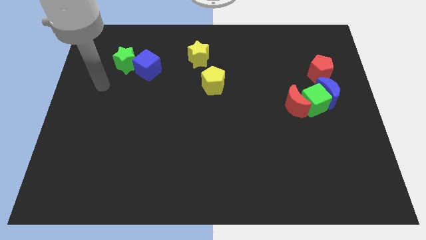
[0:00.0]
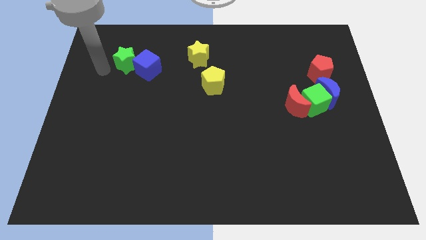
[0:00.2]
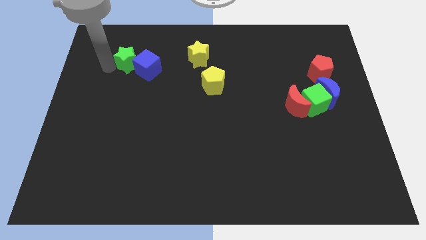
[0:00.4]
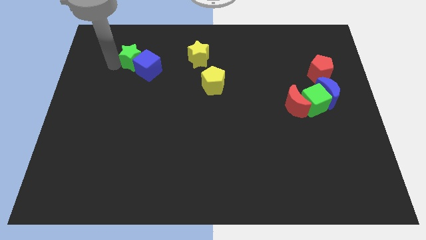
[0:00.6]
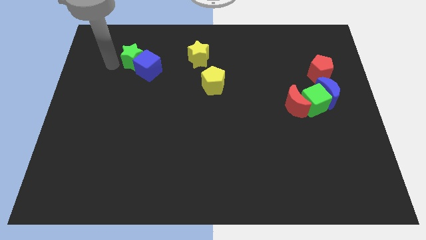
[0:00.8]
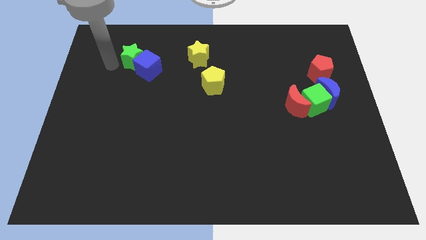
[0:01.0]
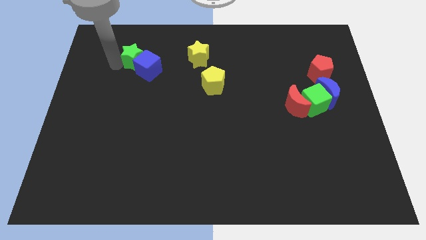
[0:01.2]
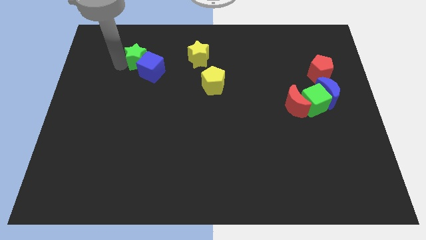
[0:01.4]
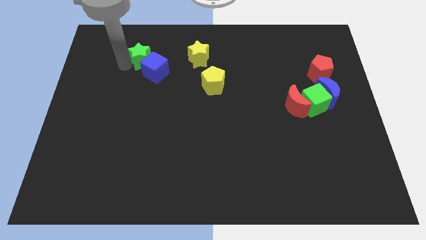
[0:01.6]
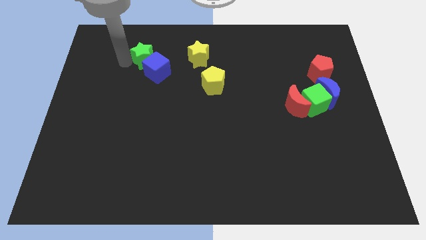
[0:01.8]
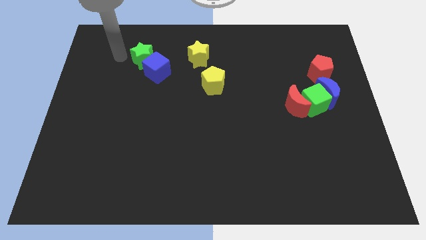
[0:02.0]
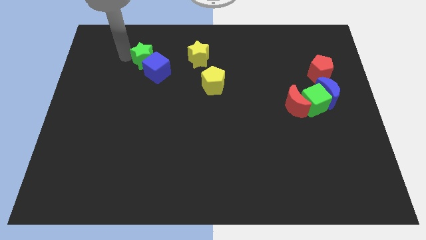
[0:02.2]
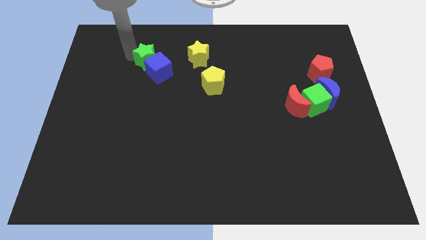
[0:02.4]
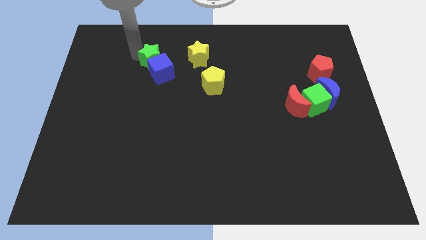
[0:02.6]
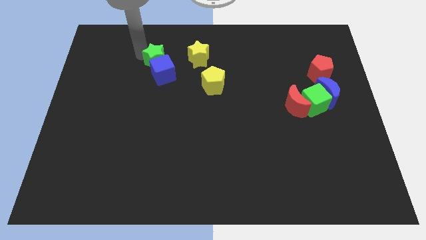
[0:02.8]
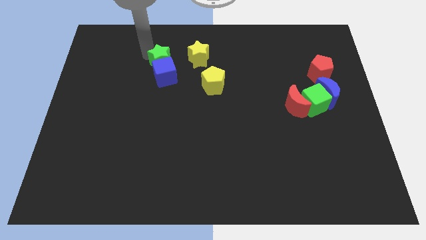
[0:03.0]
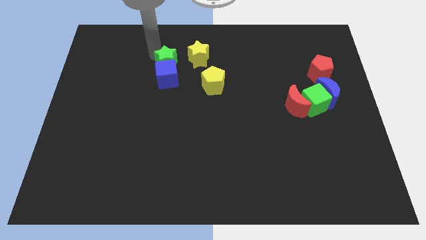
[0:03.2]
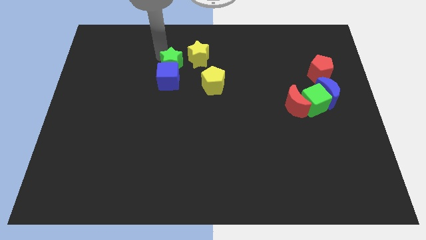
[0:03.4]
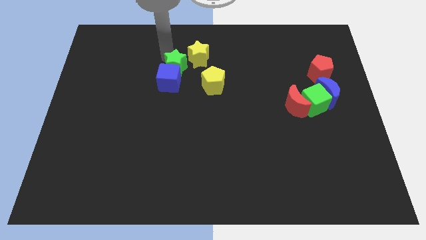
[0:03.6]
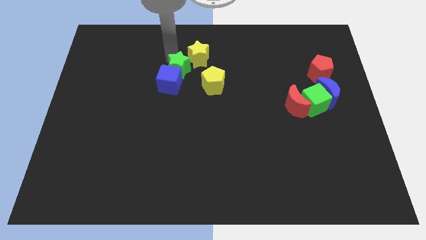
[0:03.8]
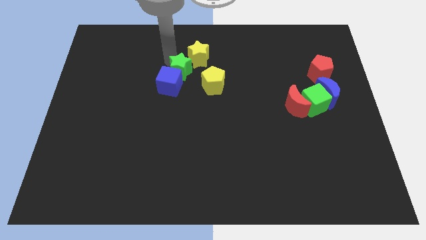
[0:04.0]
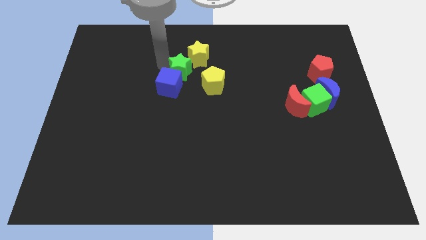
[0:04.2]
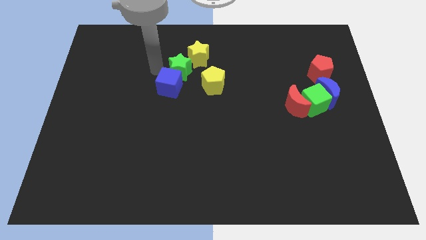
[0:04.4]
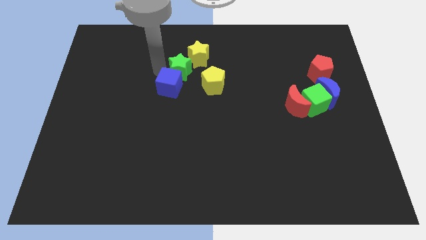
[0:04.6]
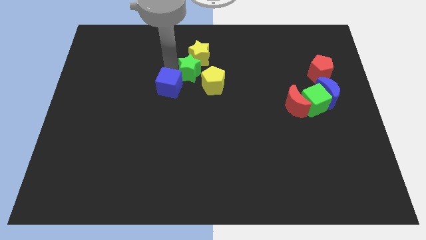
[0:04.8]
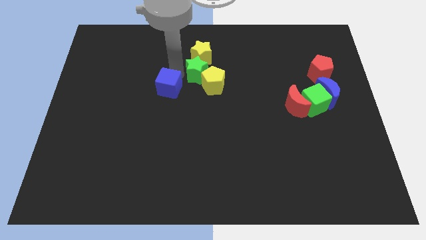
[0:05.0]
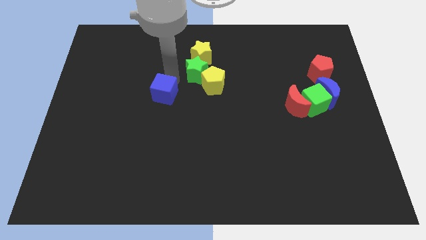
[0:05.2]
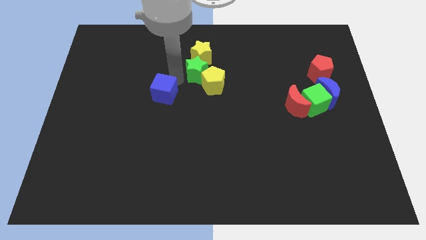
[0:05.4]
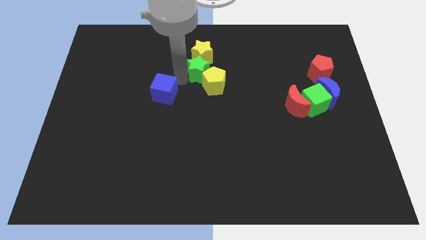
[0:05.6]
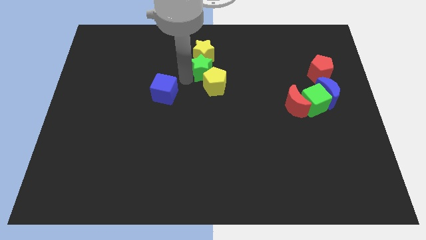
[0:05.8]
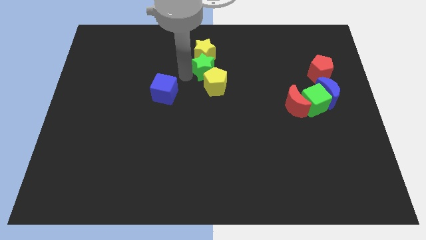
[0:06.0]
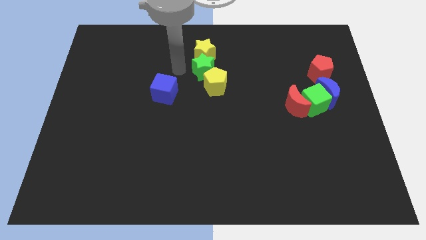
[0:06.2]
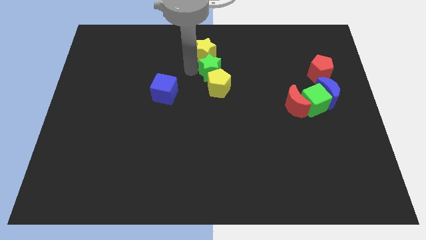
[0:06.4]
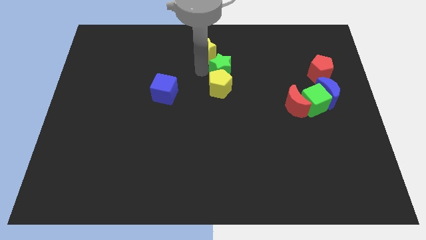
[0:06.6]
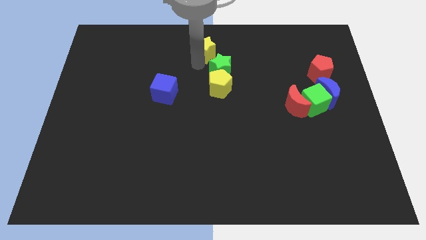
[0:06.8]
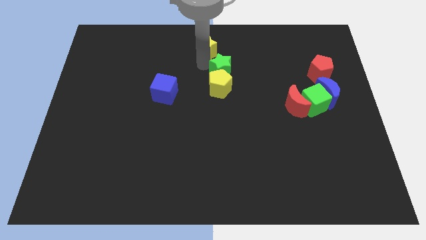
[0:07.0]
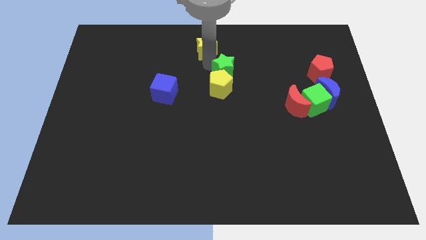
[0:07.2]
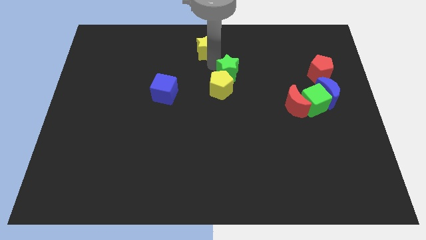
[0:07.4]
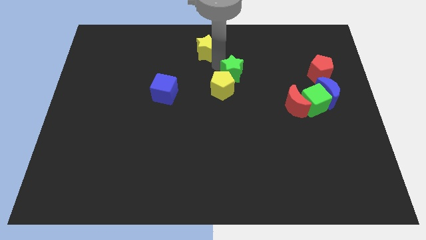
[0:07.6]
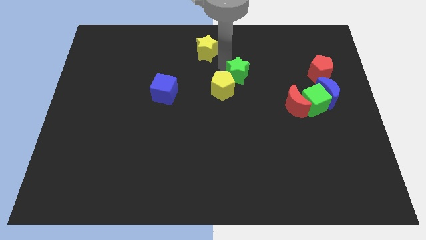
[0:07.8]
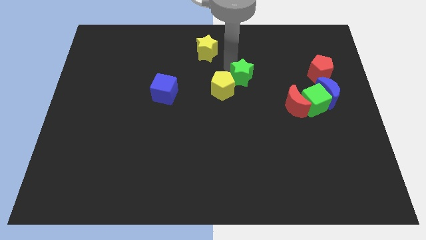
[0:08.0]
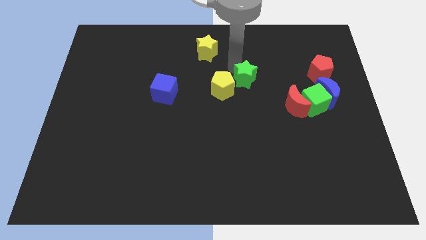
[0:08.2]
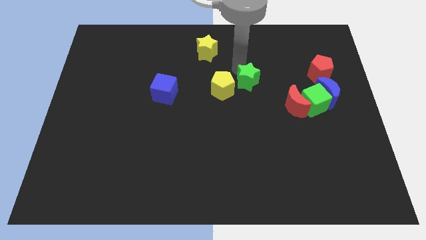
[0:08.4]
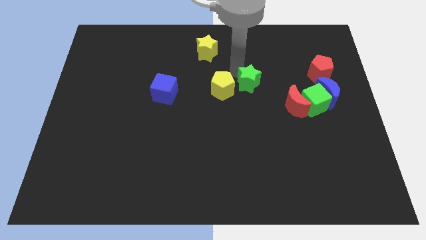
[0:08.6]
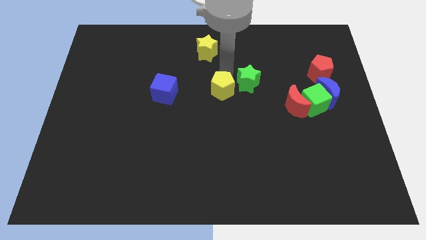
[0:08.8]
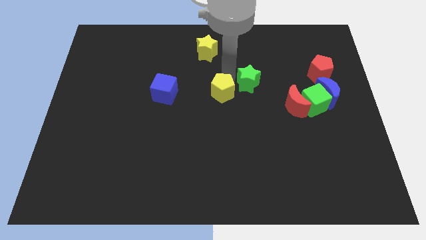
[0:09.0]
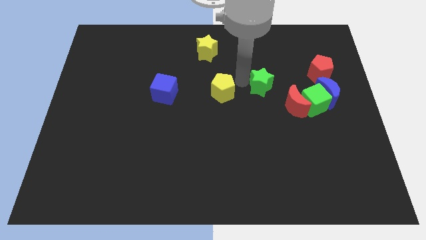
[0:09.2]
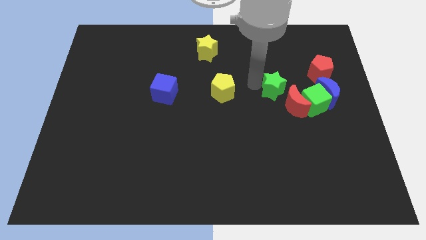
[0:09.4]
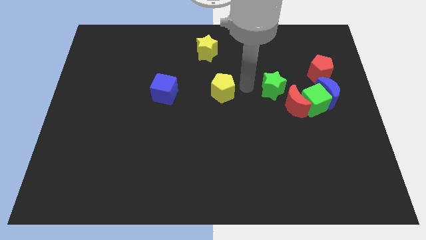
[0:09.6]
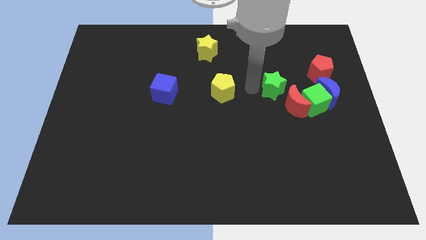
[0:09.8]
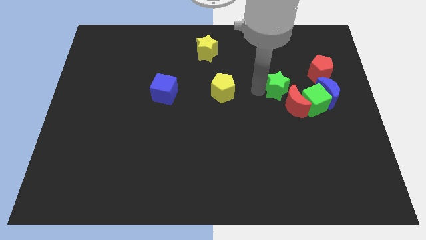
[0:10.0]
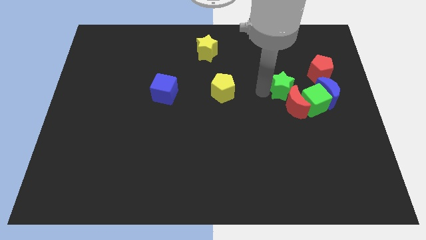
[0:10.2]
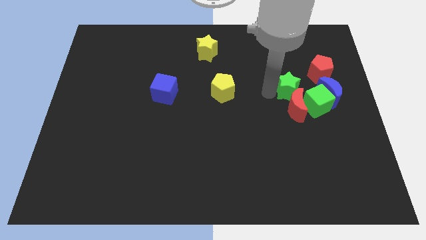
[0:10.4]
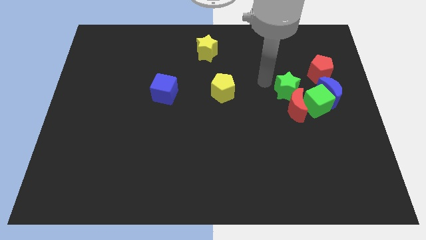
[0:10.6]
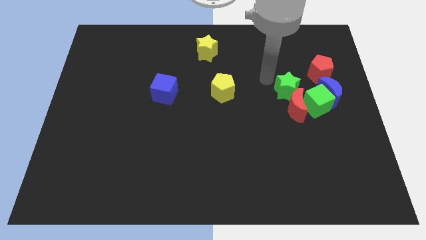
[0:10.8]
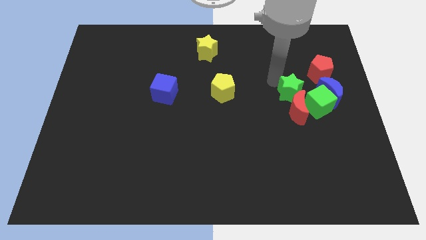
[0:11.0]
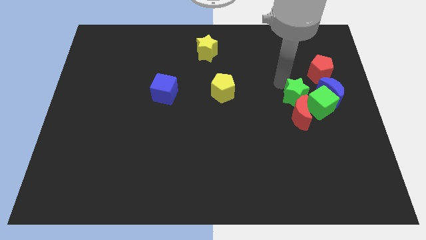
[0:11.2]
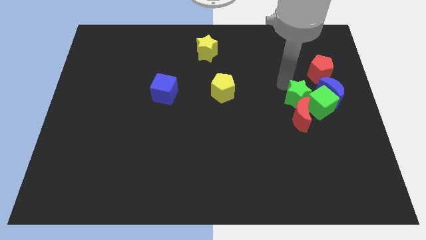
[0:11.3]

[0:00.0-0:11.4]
push the green star towards the green cube

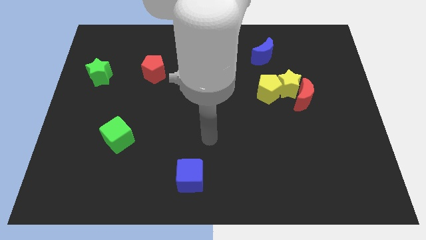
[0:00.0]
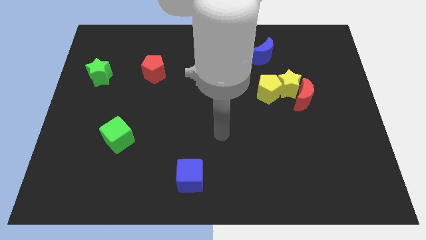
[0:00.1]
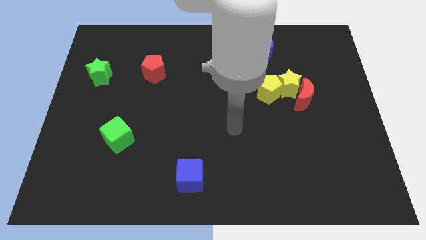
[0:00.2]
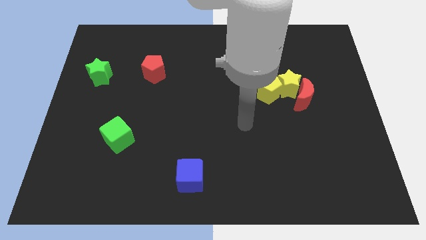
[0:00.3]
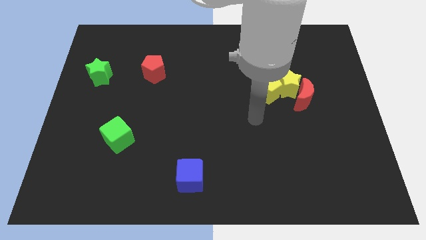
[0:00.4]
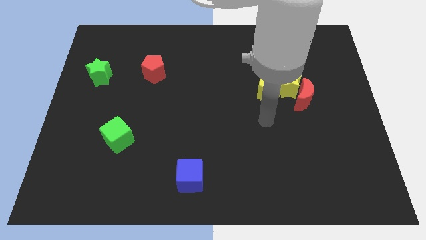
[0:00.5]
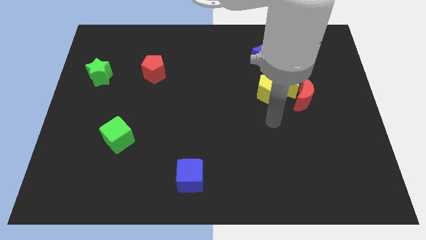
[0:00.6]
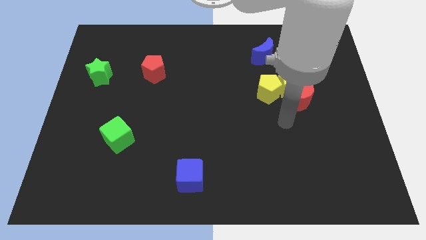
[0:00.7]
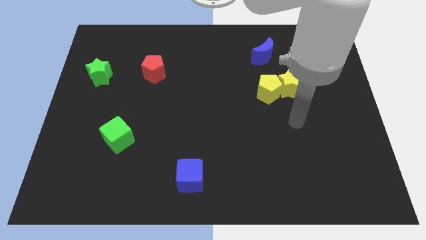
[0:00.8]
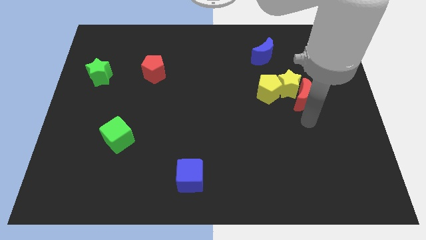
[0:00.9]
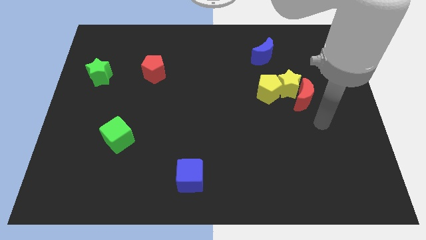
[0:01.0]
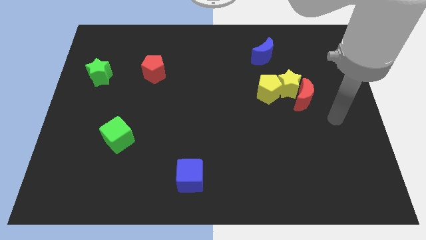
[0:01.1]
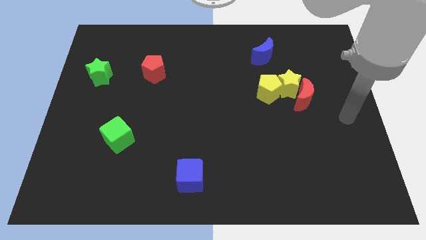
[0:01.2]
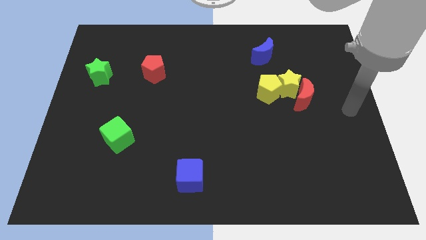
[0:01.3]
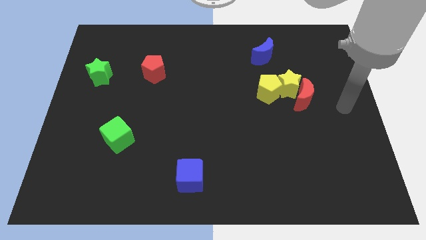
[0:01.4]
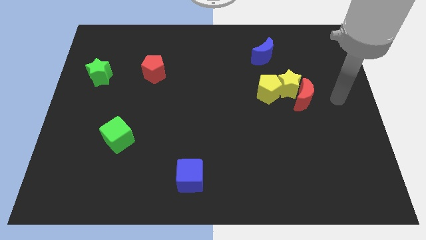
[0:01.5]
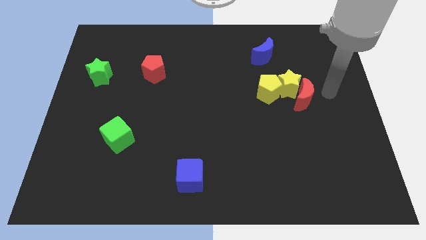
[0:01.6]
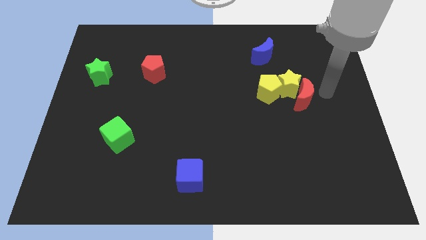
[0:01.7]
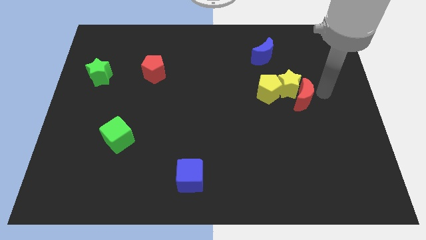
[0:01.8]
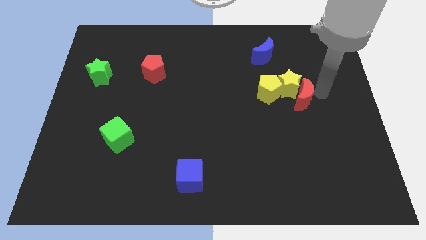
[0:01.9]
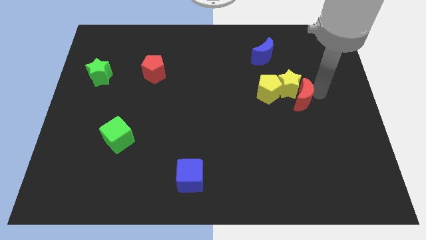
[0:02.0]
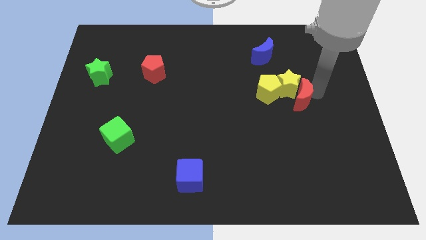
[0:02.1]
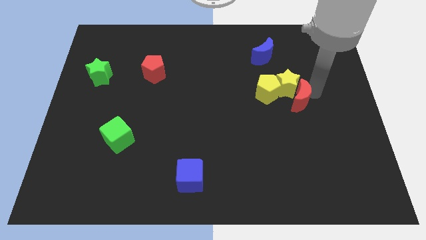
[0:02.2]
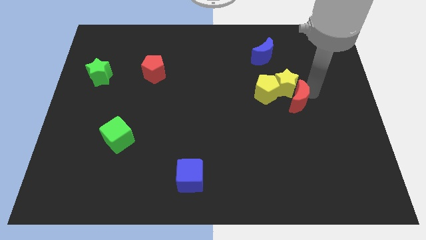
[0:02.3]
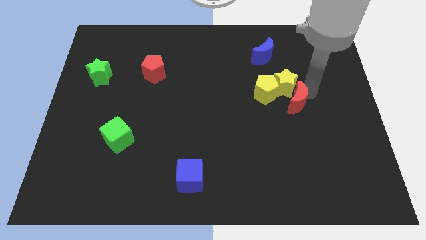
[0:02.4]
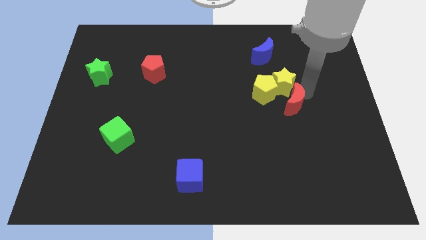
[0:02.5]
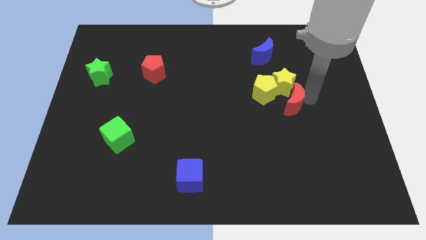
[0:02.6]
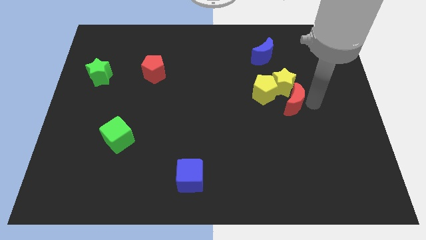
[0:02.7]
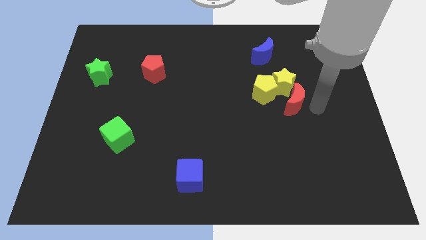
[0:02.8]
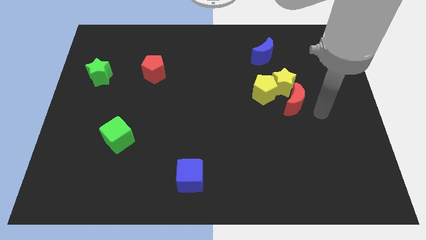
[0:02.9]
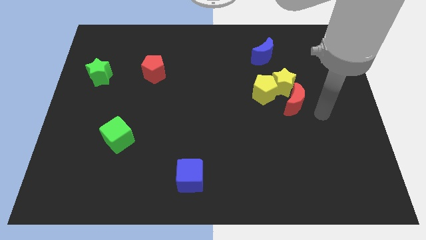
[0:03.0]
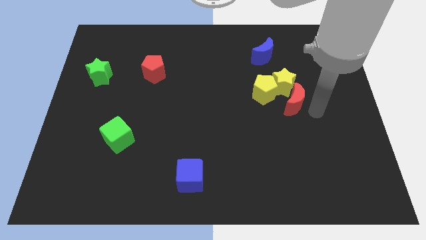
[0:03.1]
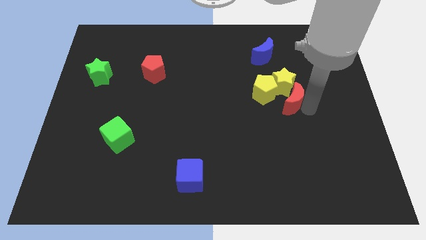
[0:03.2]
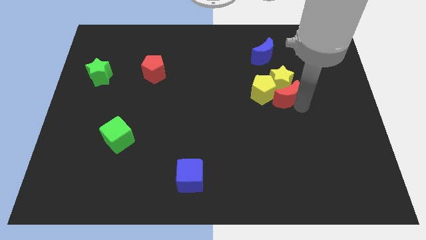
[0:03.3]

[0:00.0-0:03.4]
move the red moon close to the yellow pentagon
